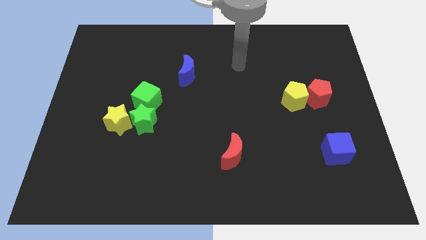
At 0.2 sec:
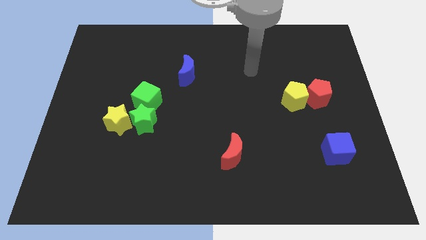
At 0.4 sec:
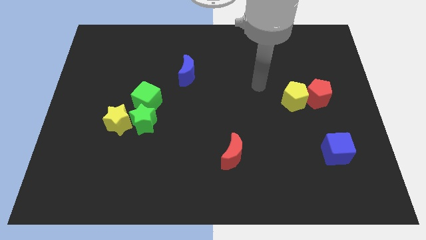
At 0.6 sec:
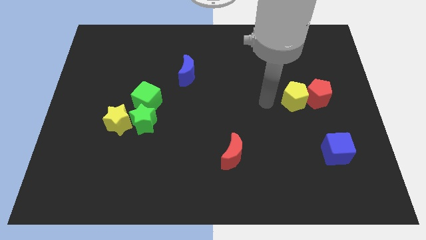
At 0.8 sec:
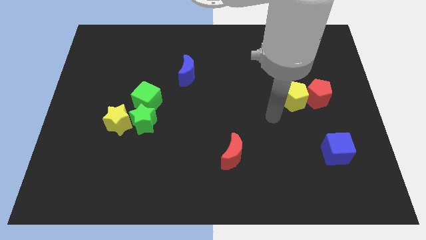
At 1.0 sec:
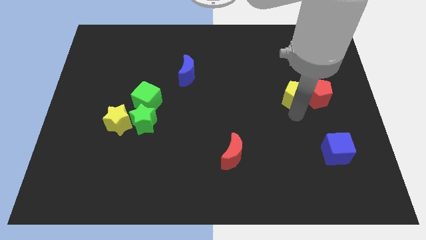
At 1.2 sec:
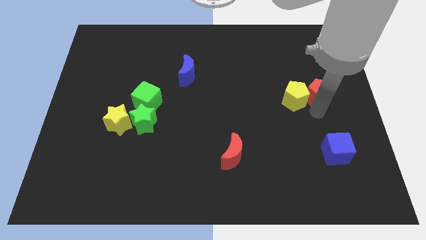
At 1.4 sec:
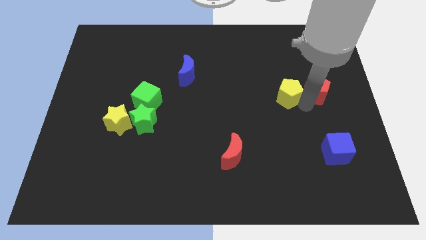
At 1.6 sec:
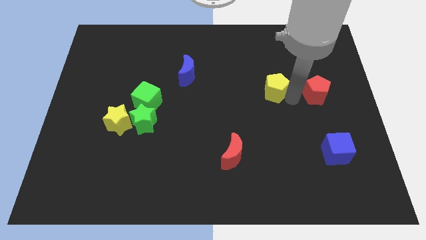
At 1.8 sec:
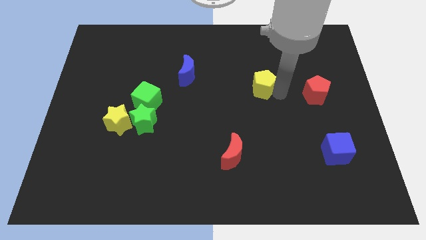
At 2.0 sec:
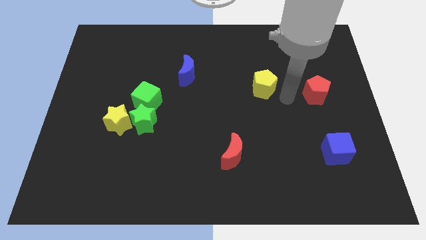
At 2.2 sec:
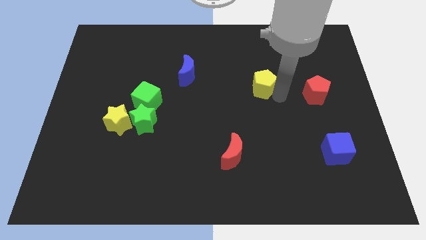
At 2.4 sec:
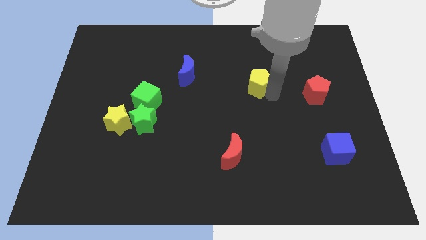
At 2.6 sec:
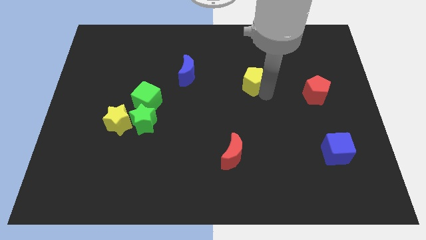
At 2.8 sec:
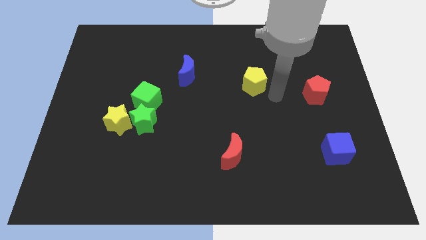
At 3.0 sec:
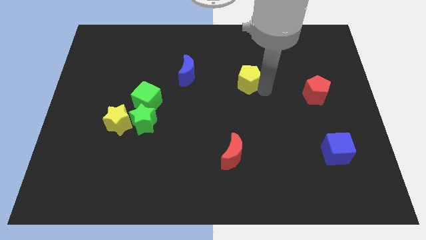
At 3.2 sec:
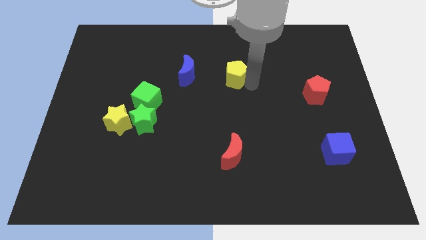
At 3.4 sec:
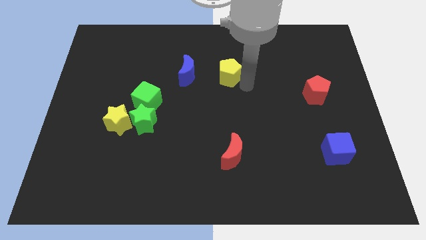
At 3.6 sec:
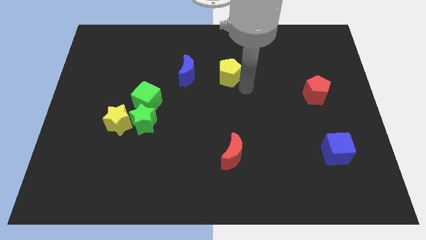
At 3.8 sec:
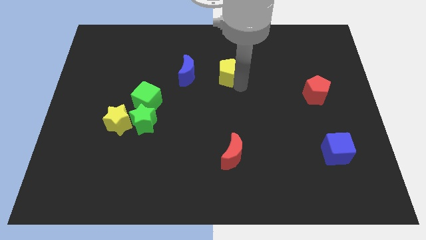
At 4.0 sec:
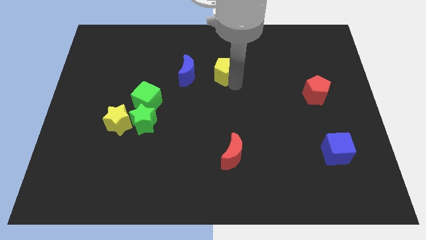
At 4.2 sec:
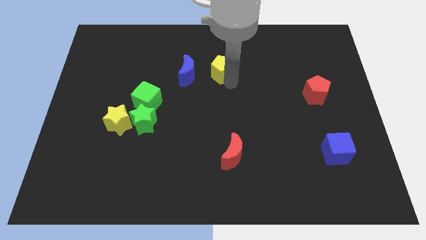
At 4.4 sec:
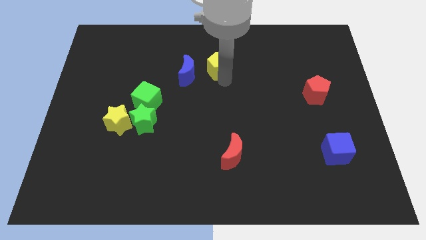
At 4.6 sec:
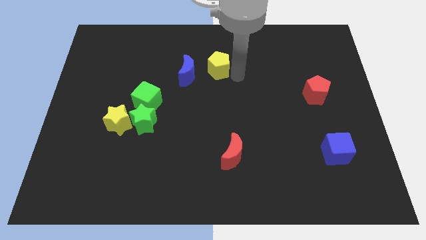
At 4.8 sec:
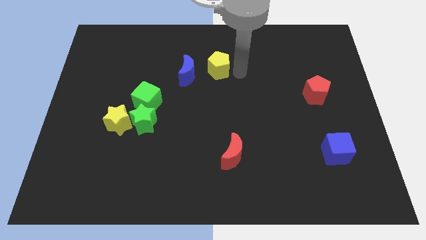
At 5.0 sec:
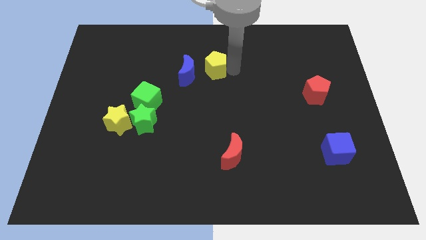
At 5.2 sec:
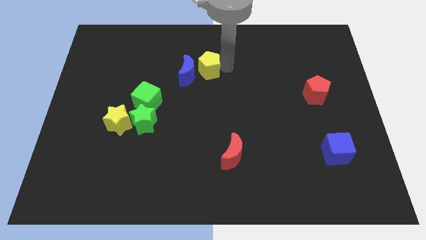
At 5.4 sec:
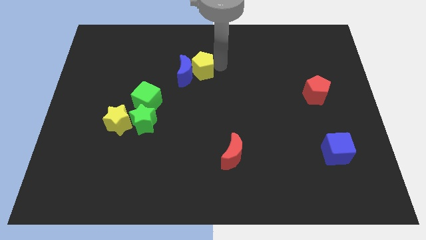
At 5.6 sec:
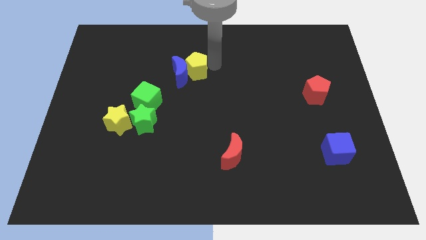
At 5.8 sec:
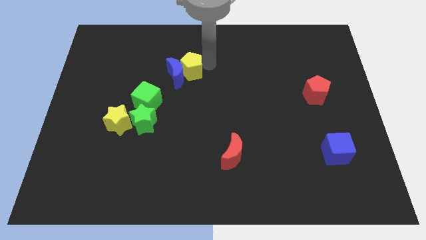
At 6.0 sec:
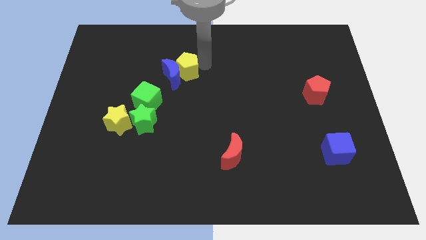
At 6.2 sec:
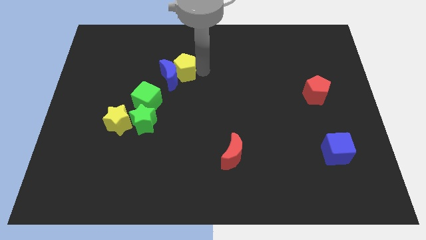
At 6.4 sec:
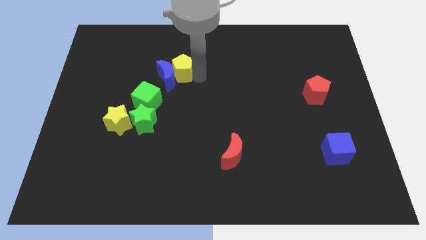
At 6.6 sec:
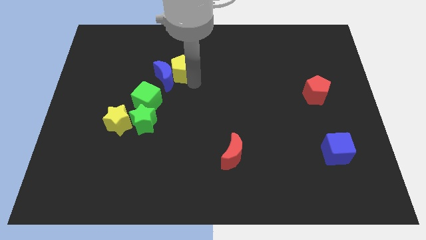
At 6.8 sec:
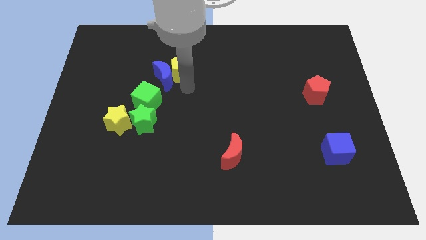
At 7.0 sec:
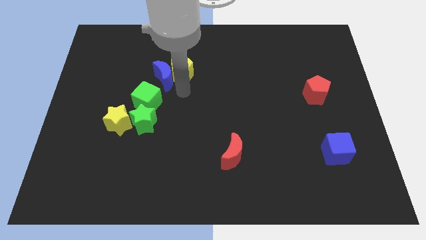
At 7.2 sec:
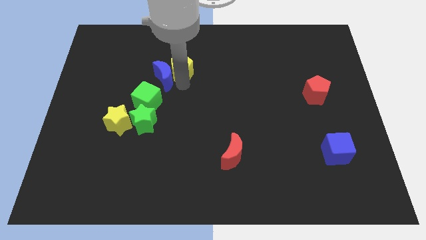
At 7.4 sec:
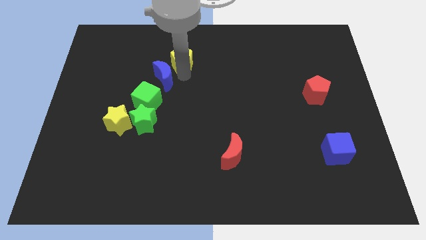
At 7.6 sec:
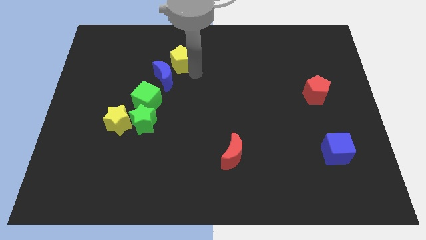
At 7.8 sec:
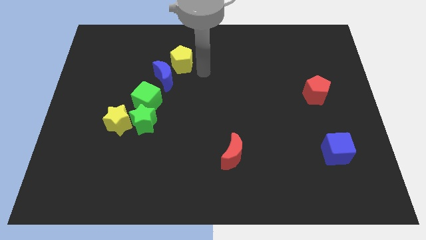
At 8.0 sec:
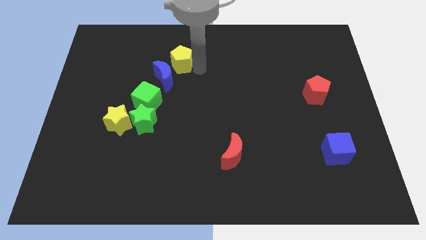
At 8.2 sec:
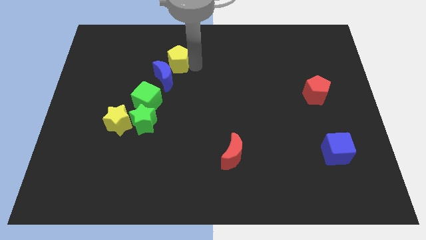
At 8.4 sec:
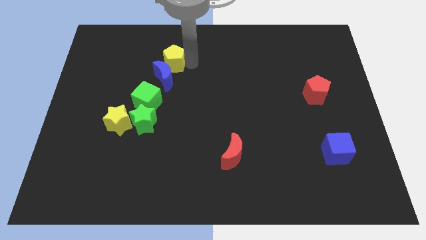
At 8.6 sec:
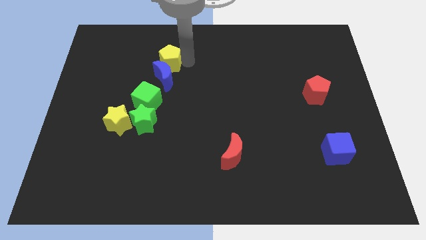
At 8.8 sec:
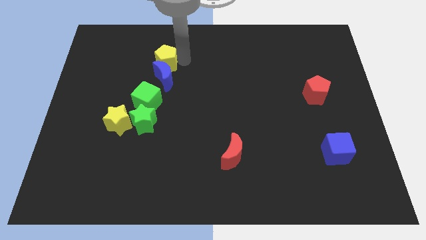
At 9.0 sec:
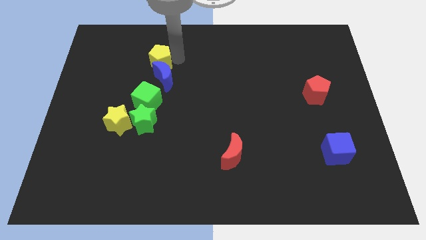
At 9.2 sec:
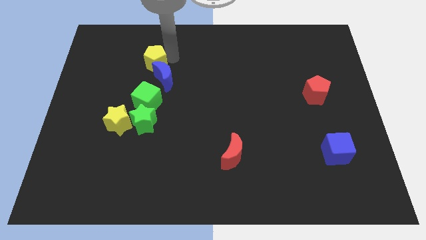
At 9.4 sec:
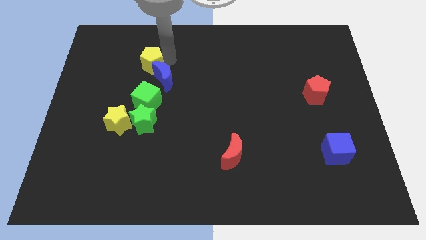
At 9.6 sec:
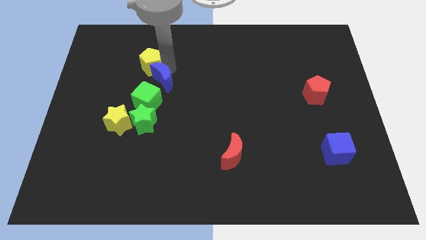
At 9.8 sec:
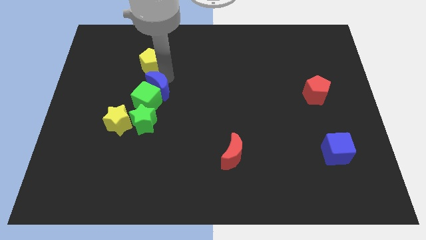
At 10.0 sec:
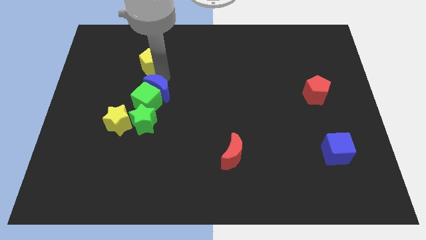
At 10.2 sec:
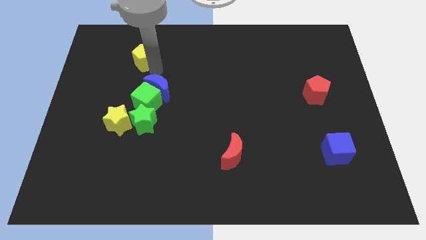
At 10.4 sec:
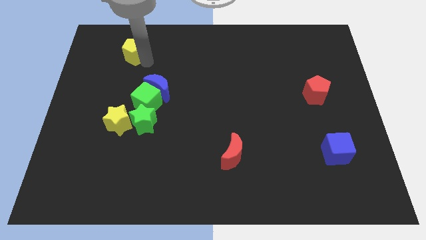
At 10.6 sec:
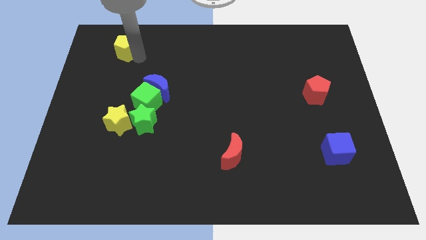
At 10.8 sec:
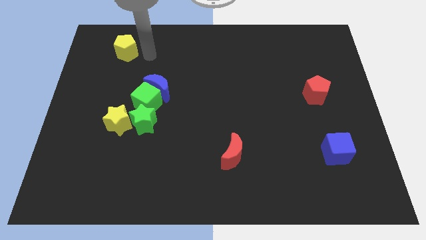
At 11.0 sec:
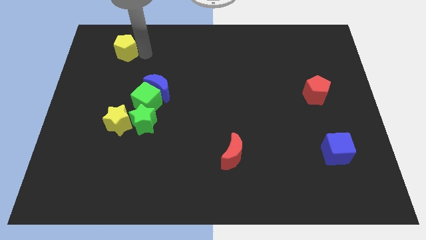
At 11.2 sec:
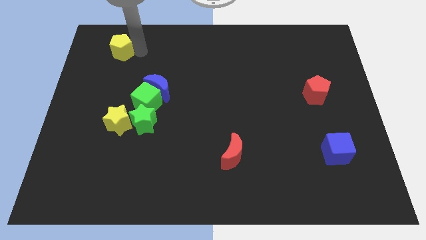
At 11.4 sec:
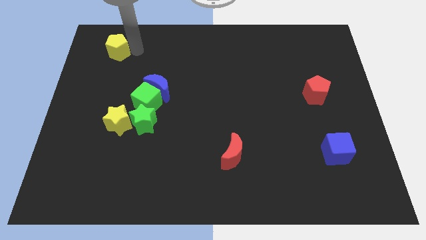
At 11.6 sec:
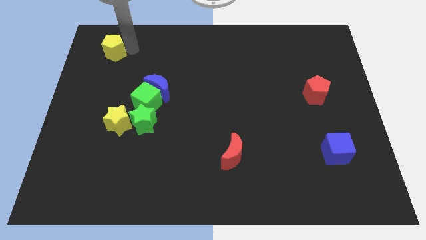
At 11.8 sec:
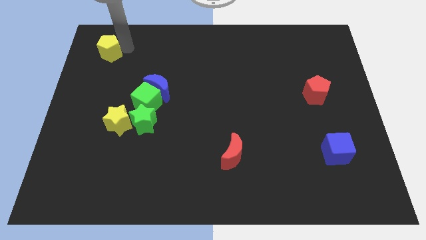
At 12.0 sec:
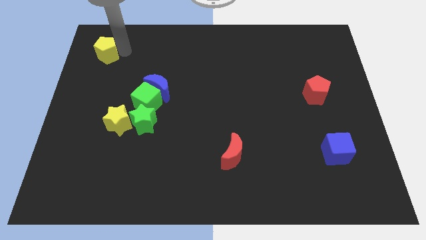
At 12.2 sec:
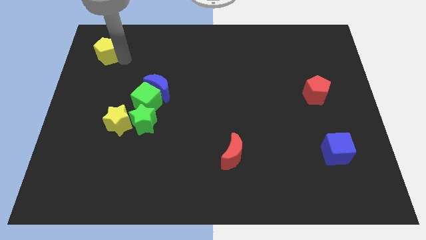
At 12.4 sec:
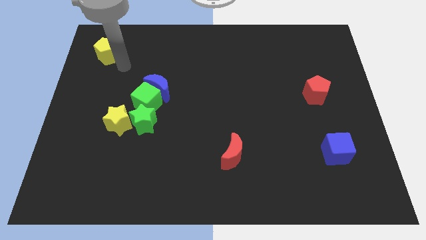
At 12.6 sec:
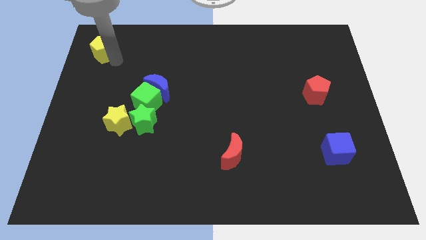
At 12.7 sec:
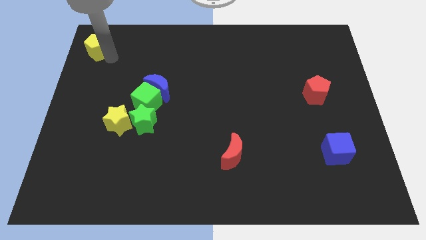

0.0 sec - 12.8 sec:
move the yellow pentagon to the top left of the board

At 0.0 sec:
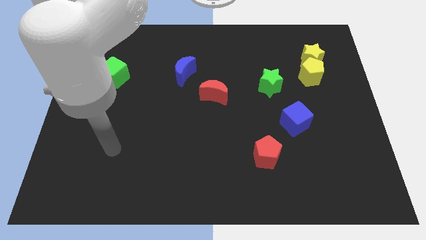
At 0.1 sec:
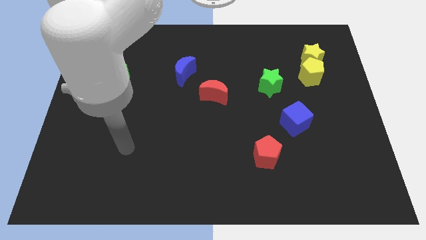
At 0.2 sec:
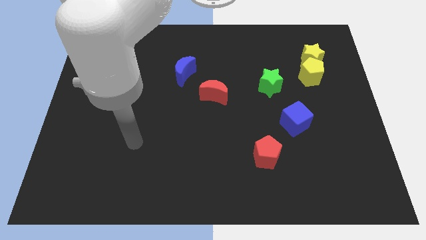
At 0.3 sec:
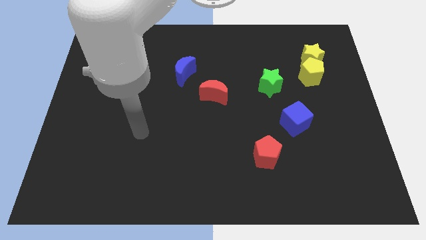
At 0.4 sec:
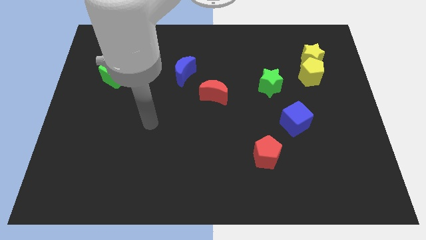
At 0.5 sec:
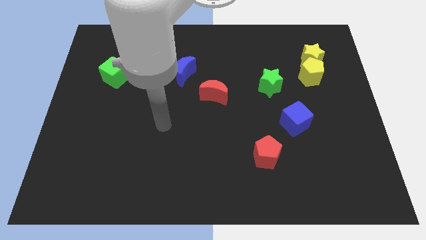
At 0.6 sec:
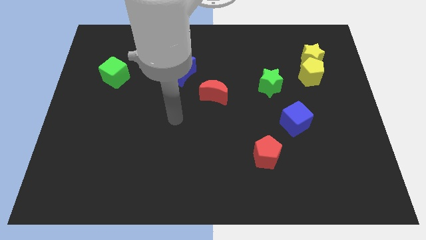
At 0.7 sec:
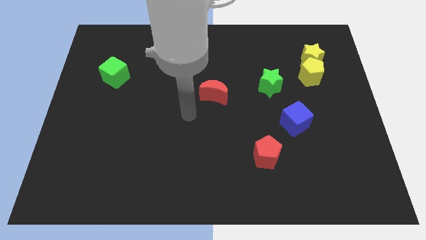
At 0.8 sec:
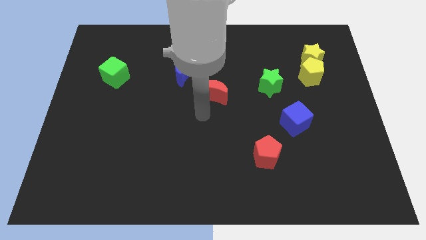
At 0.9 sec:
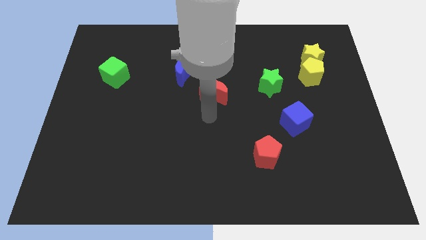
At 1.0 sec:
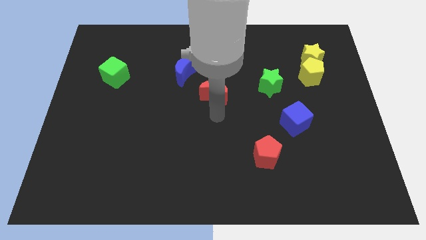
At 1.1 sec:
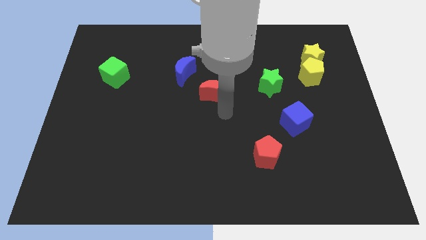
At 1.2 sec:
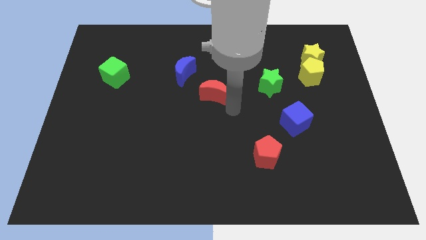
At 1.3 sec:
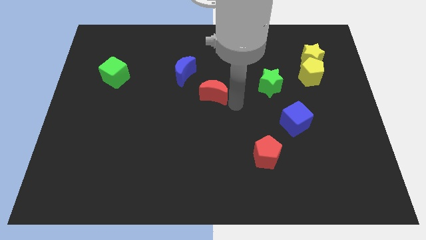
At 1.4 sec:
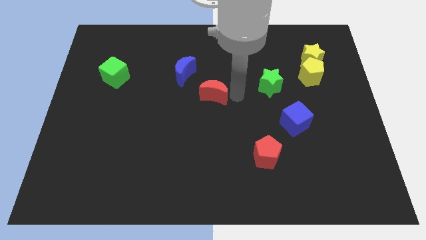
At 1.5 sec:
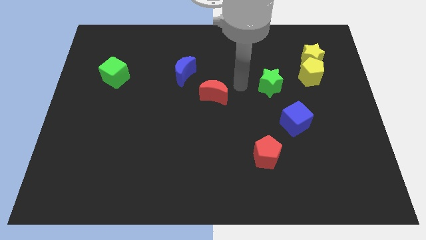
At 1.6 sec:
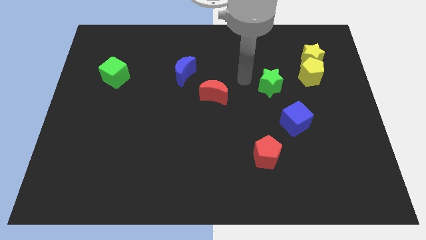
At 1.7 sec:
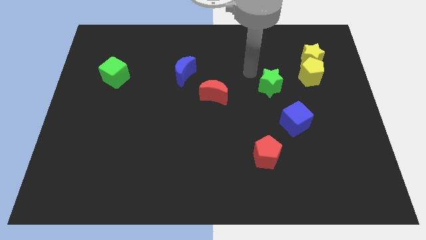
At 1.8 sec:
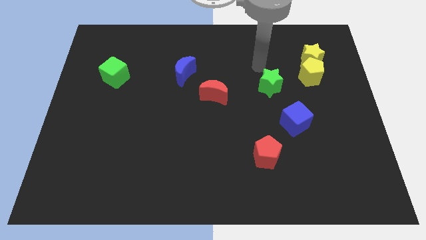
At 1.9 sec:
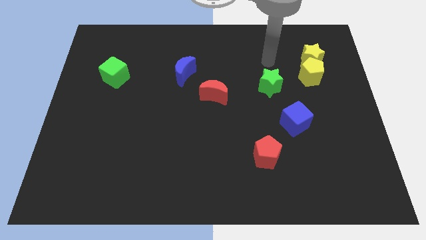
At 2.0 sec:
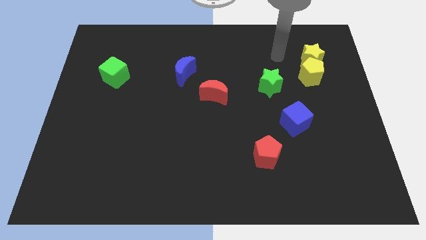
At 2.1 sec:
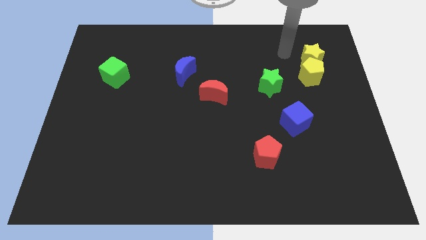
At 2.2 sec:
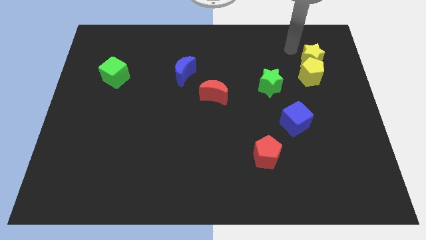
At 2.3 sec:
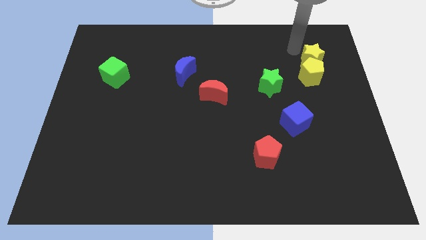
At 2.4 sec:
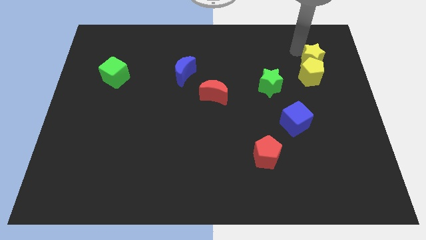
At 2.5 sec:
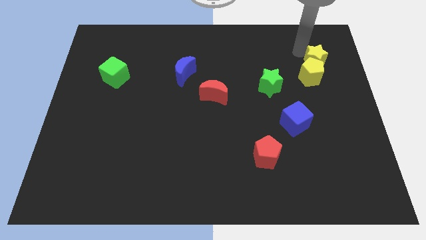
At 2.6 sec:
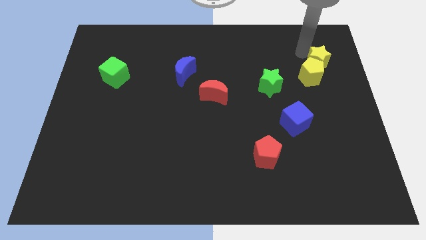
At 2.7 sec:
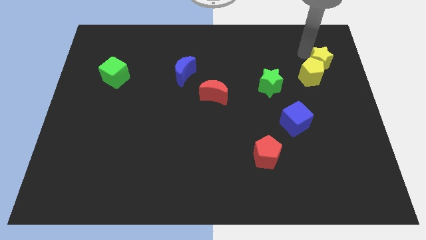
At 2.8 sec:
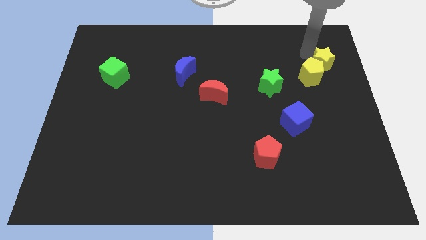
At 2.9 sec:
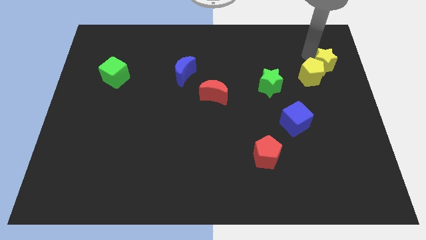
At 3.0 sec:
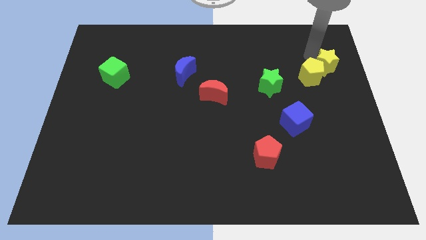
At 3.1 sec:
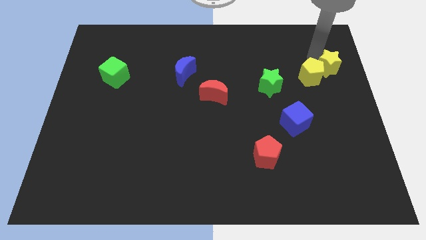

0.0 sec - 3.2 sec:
push the yellow star to the right side
